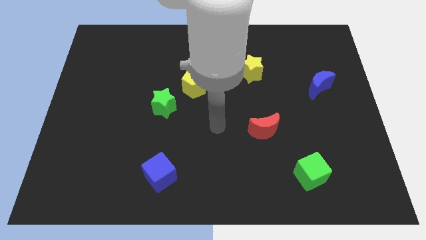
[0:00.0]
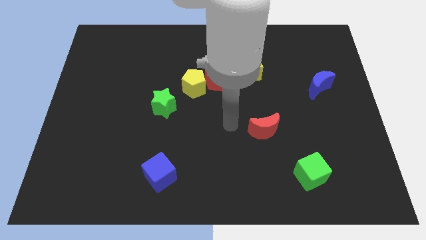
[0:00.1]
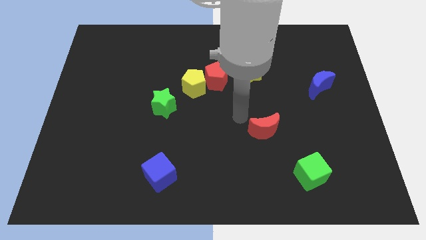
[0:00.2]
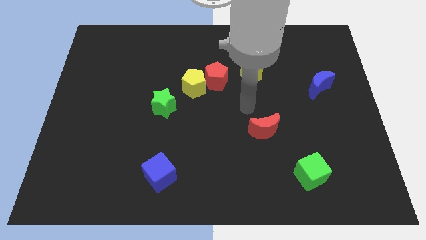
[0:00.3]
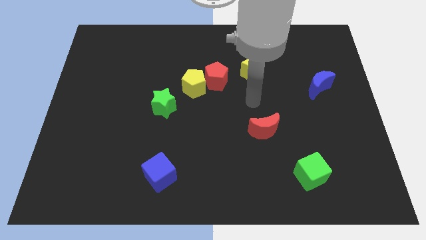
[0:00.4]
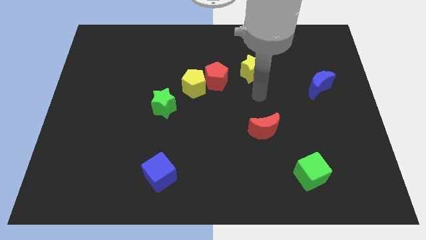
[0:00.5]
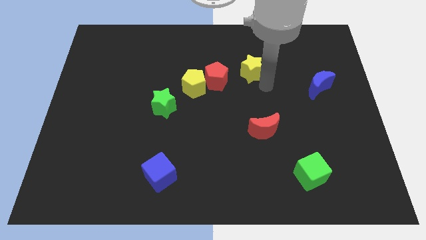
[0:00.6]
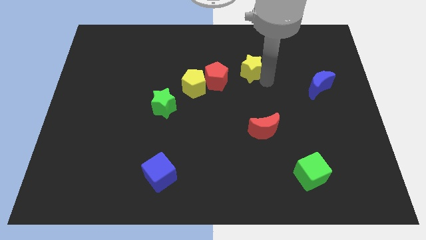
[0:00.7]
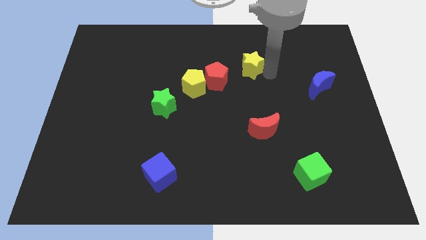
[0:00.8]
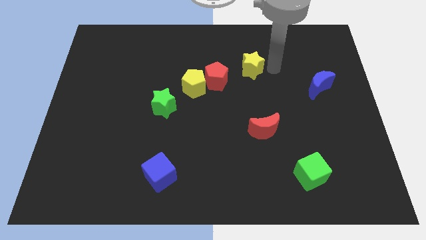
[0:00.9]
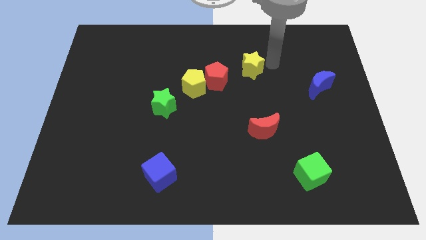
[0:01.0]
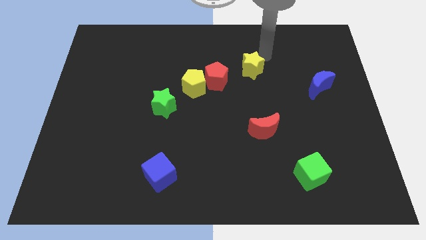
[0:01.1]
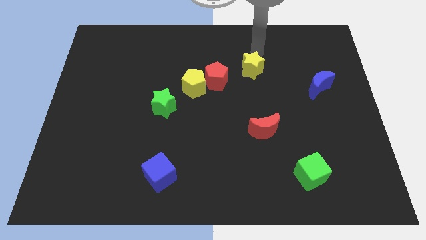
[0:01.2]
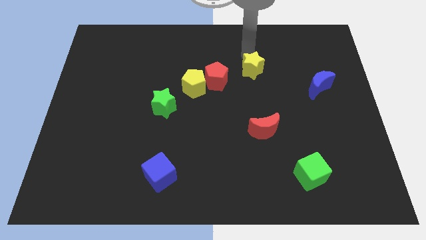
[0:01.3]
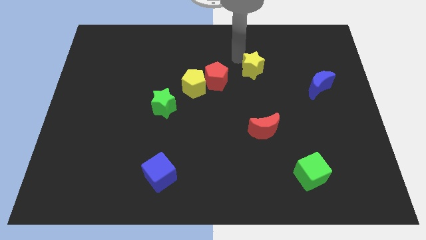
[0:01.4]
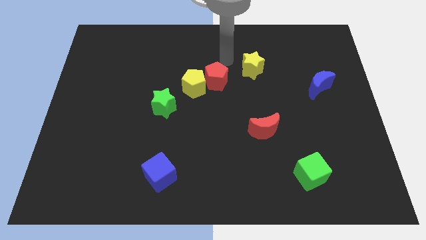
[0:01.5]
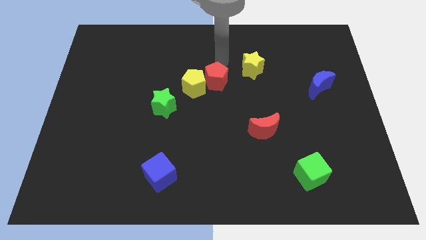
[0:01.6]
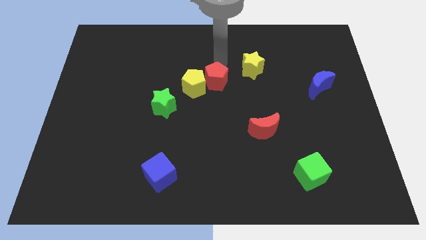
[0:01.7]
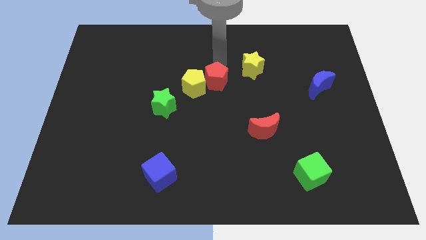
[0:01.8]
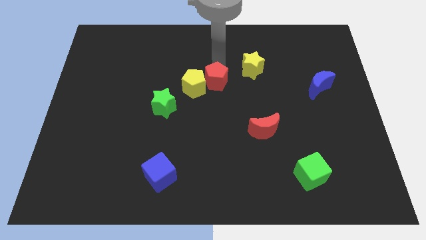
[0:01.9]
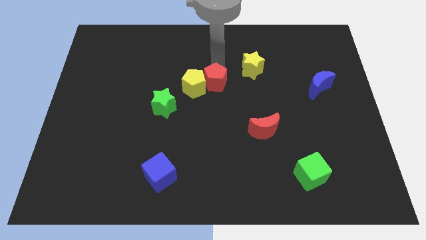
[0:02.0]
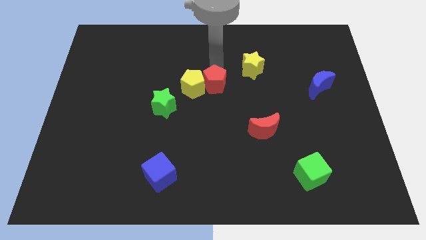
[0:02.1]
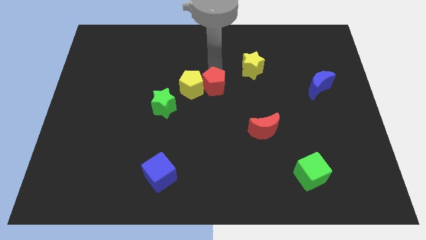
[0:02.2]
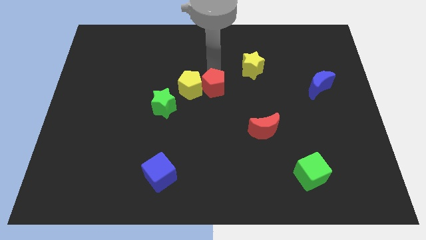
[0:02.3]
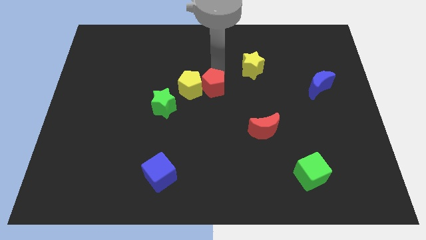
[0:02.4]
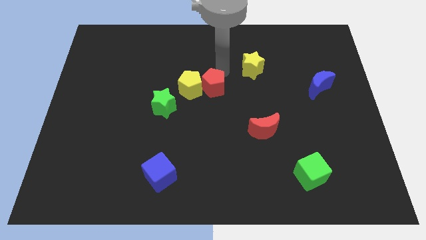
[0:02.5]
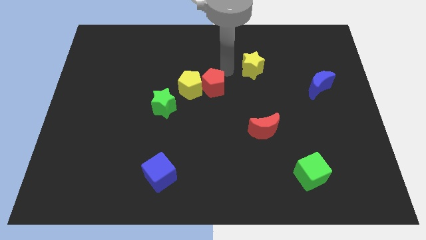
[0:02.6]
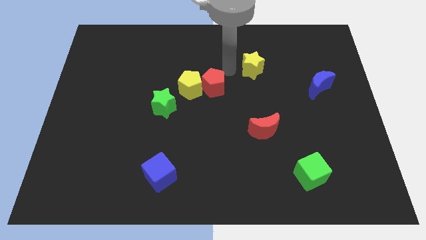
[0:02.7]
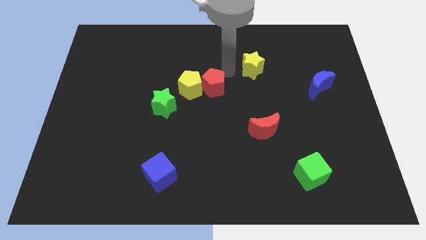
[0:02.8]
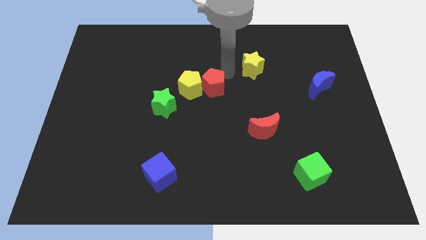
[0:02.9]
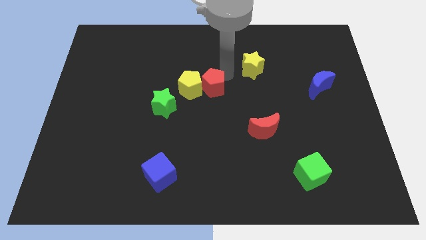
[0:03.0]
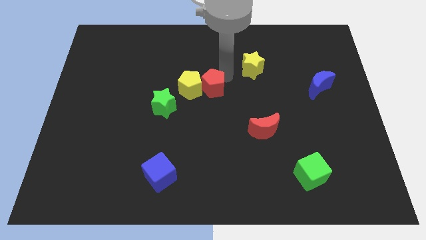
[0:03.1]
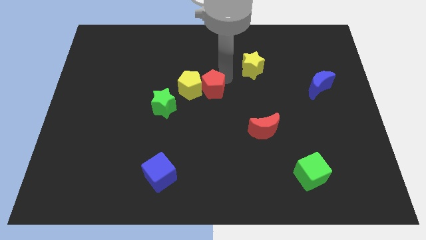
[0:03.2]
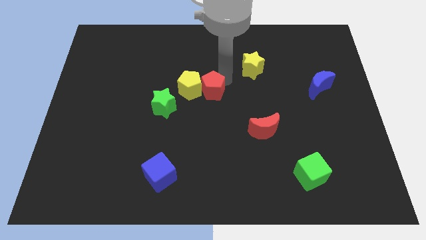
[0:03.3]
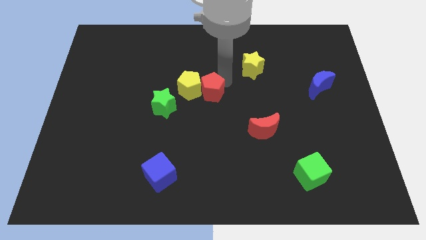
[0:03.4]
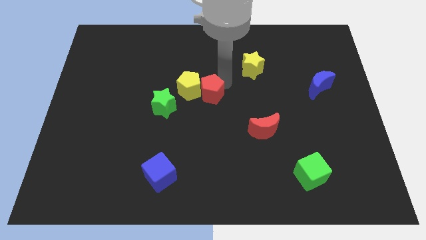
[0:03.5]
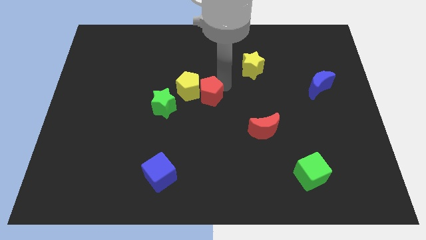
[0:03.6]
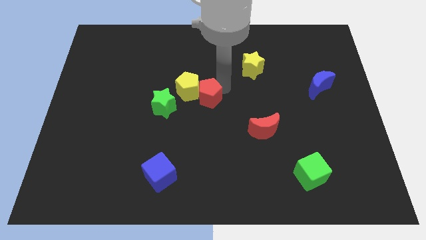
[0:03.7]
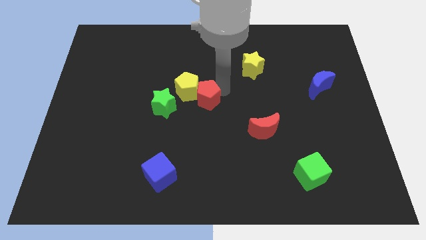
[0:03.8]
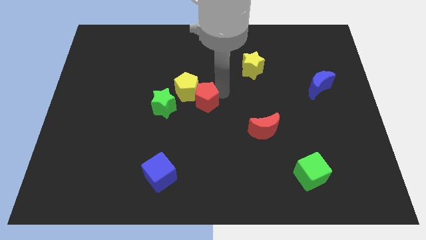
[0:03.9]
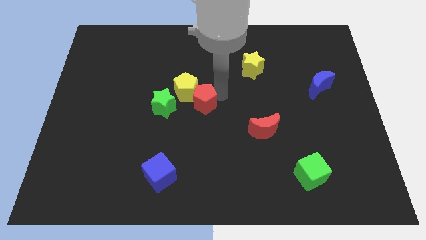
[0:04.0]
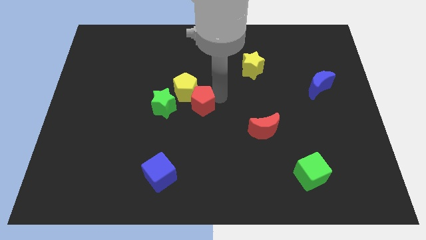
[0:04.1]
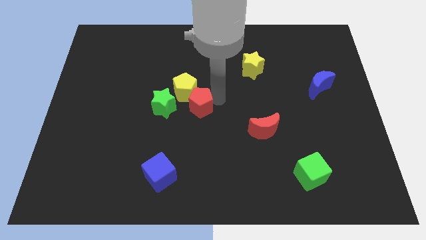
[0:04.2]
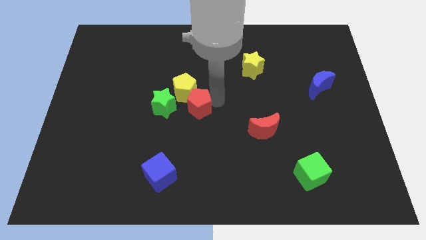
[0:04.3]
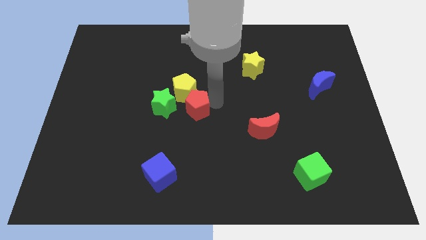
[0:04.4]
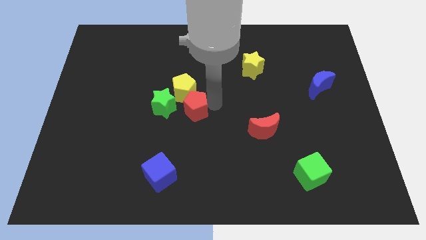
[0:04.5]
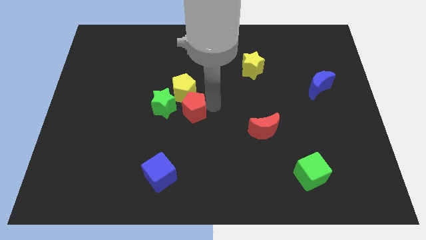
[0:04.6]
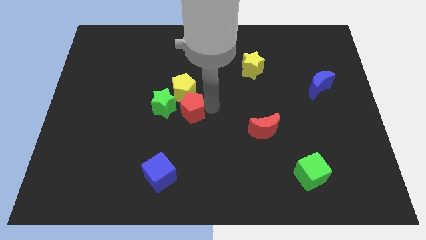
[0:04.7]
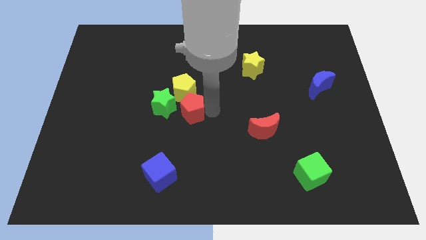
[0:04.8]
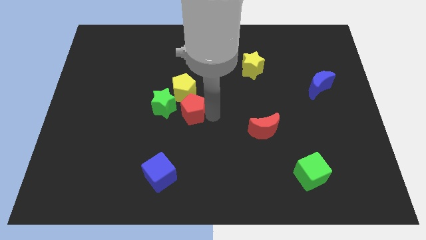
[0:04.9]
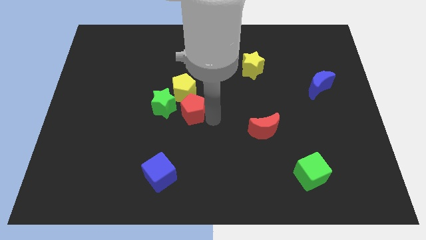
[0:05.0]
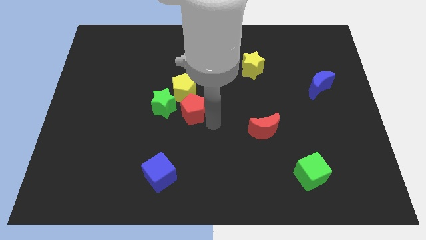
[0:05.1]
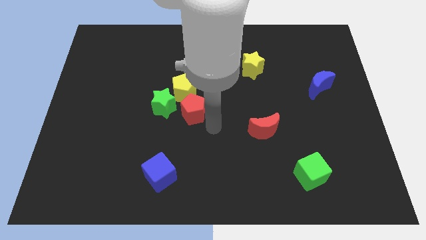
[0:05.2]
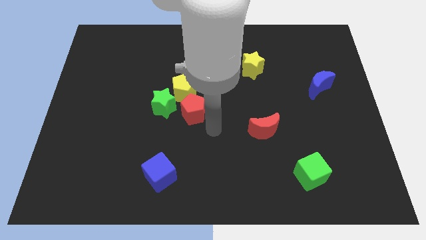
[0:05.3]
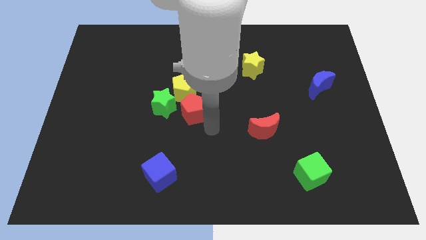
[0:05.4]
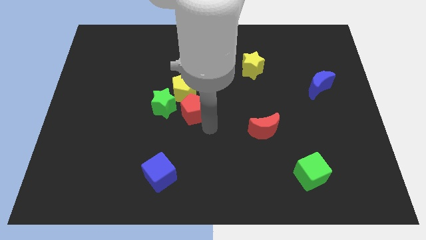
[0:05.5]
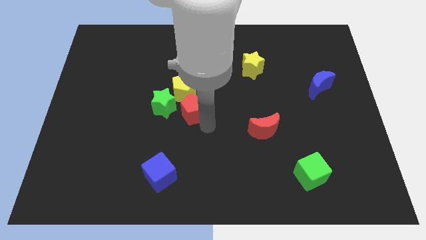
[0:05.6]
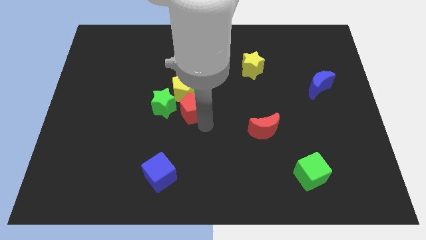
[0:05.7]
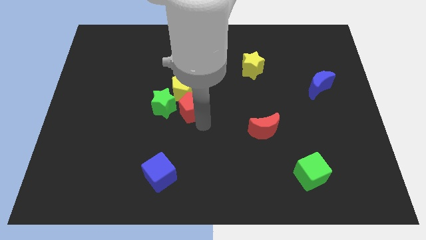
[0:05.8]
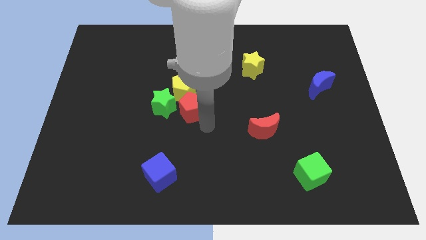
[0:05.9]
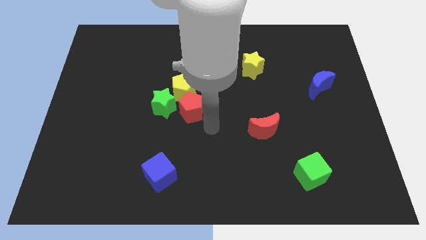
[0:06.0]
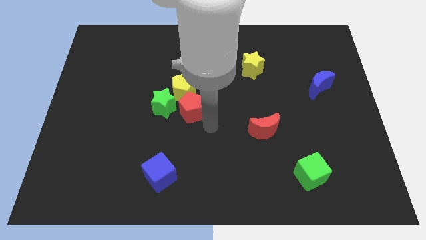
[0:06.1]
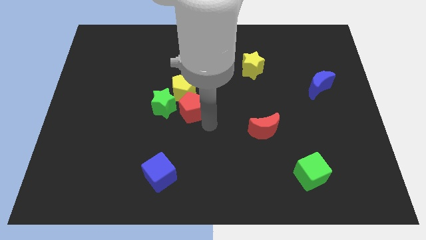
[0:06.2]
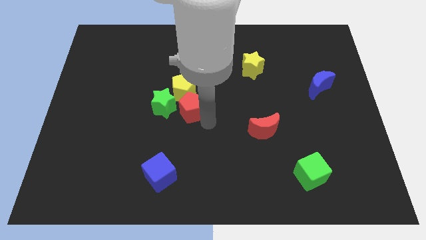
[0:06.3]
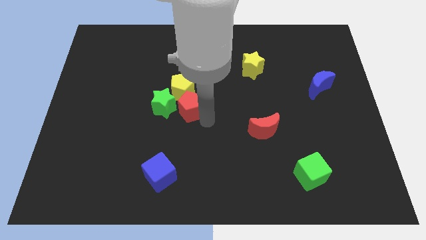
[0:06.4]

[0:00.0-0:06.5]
move the red pentagon towards the green star
